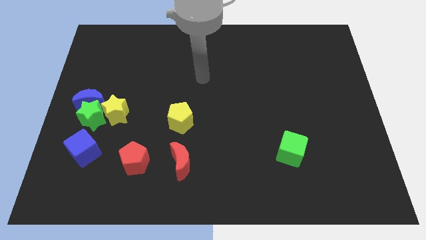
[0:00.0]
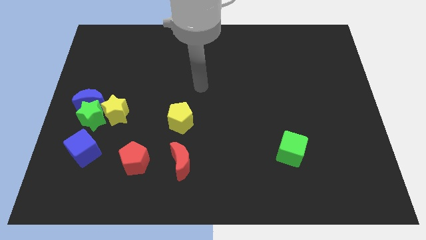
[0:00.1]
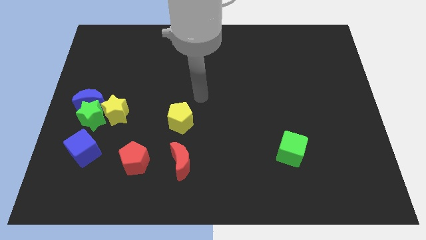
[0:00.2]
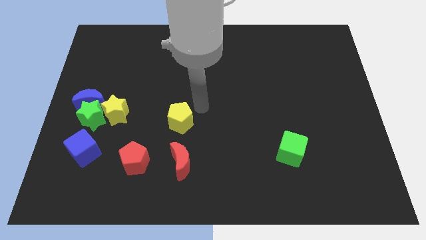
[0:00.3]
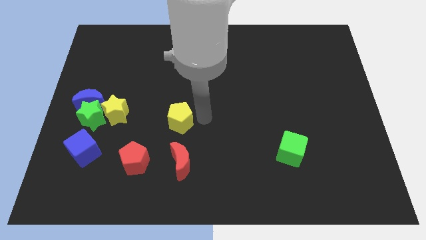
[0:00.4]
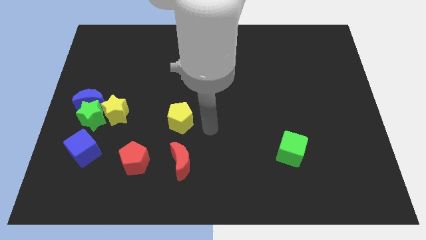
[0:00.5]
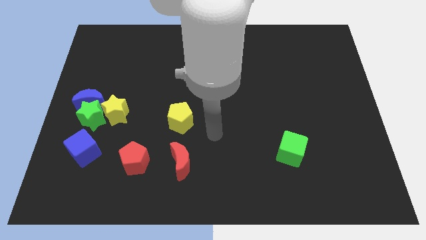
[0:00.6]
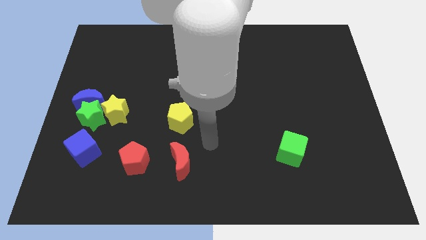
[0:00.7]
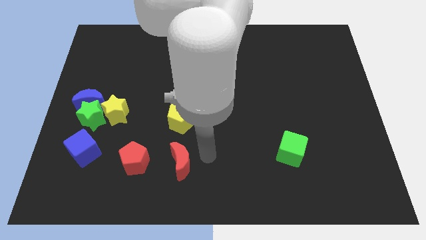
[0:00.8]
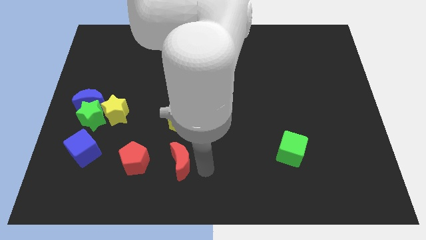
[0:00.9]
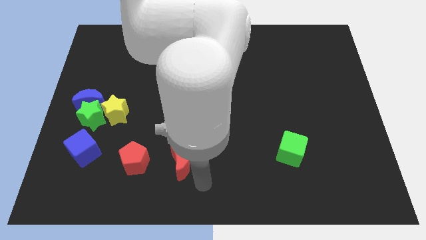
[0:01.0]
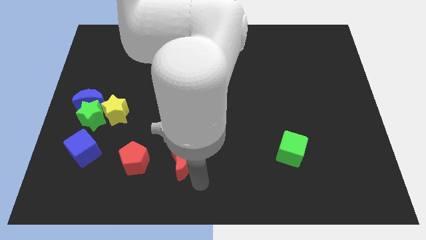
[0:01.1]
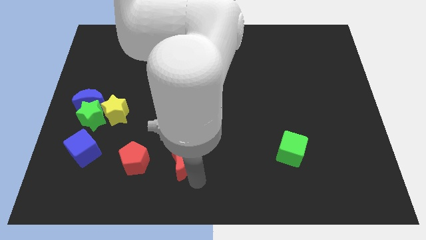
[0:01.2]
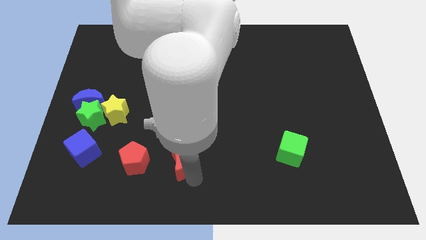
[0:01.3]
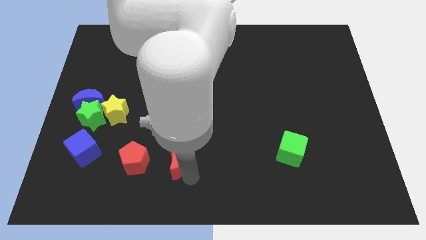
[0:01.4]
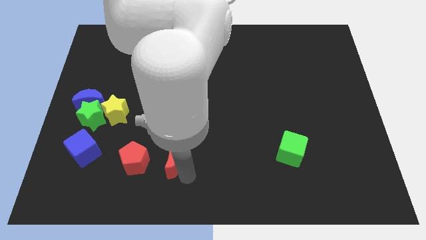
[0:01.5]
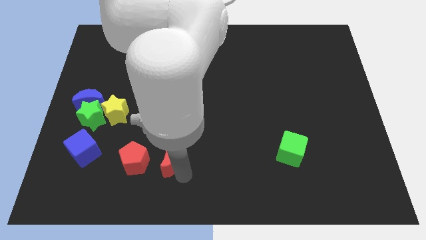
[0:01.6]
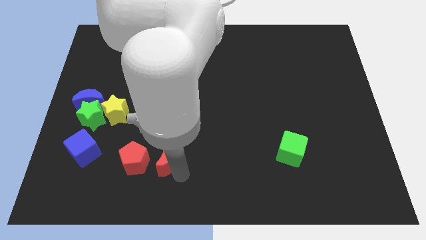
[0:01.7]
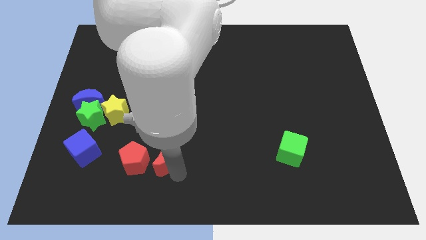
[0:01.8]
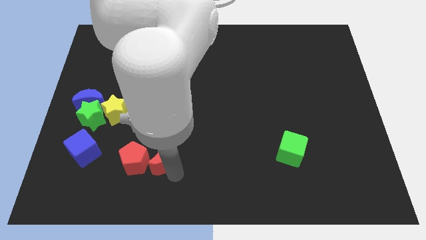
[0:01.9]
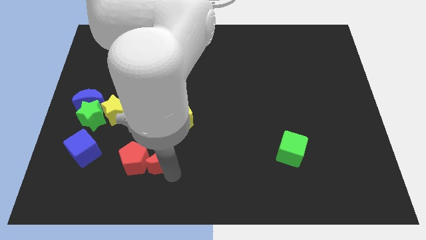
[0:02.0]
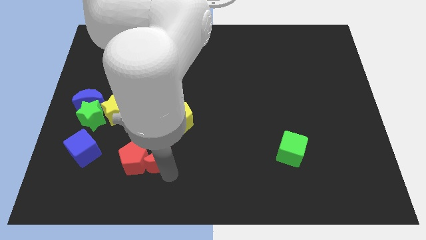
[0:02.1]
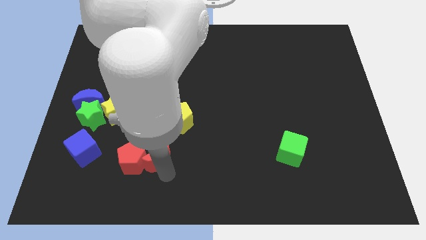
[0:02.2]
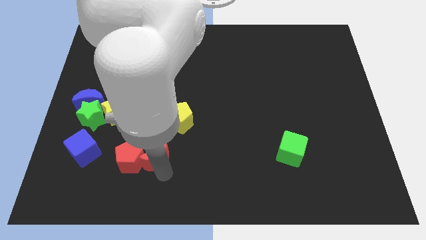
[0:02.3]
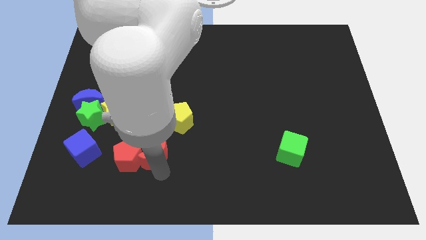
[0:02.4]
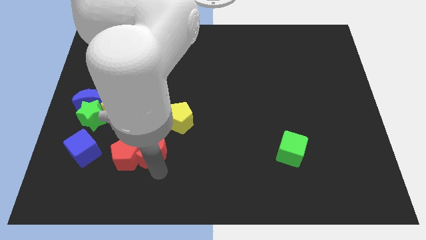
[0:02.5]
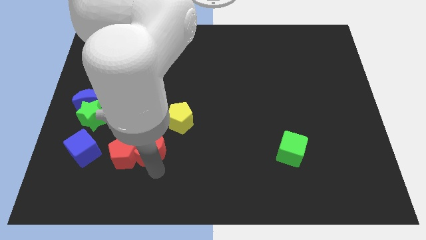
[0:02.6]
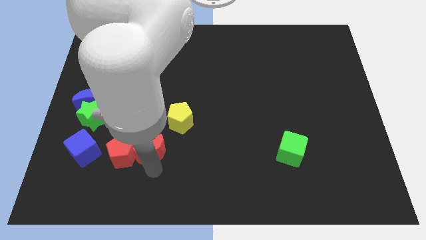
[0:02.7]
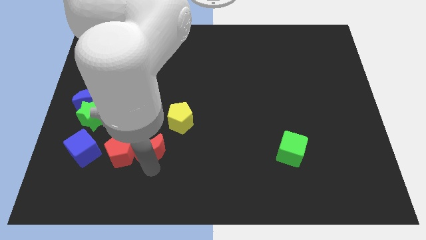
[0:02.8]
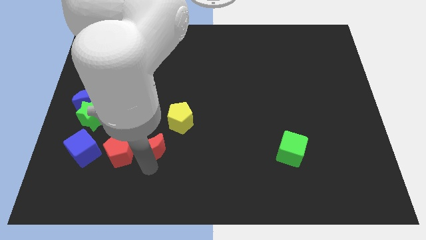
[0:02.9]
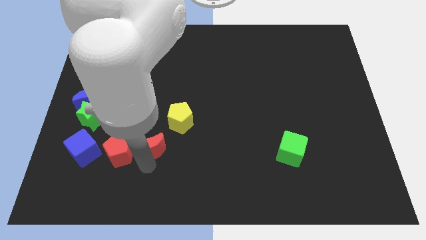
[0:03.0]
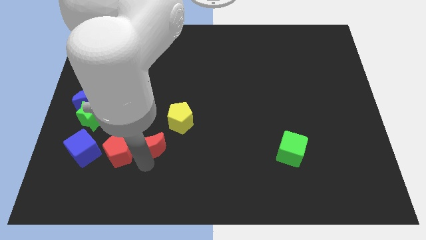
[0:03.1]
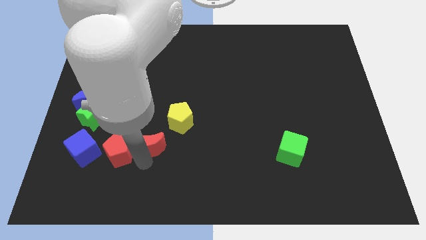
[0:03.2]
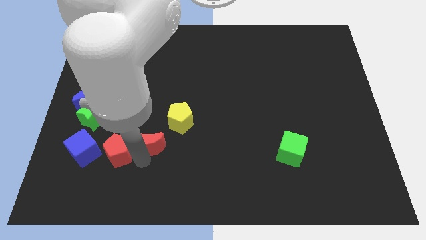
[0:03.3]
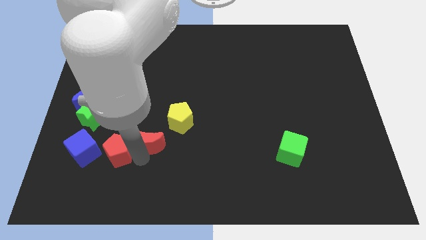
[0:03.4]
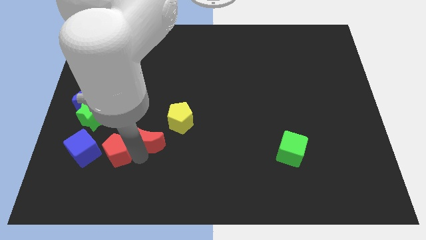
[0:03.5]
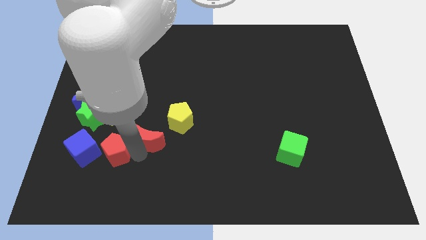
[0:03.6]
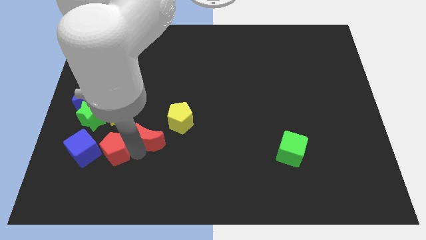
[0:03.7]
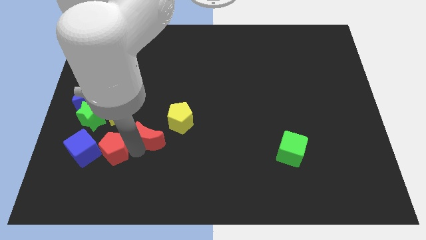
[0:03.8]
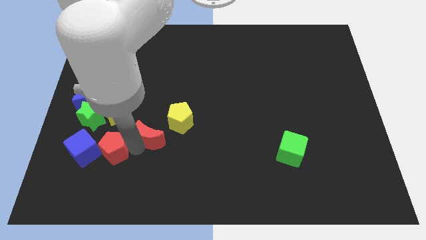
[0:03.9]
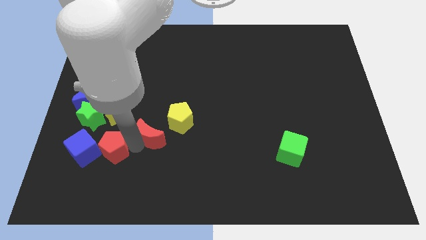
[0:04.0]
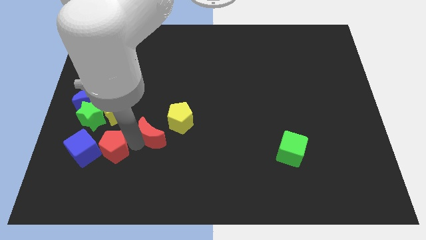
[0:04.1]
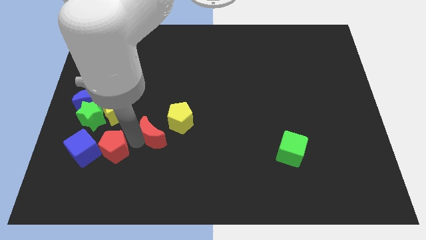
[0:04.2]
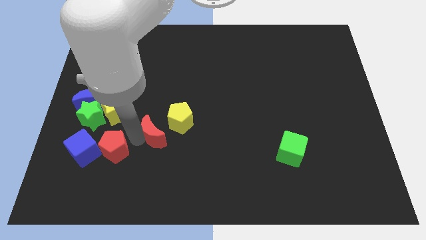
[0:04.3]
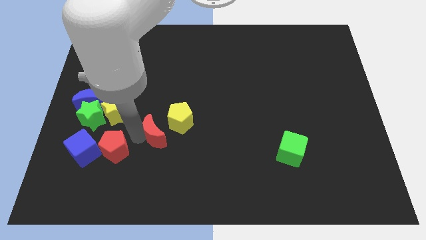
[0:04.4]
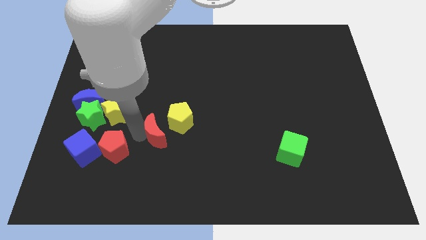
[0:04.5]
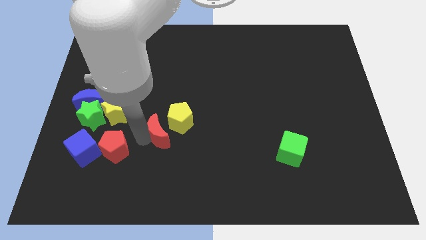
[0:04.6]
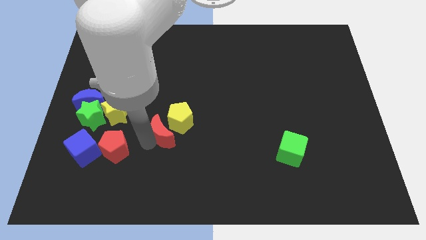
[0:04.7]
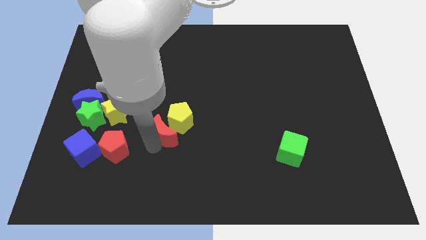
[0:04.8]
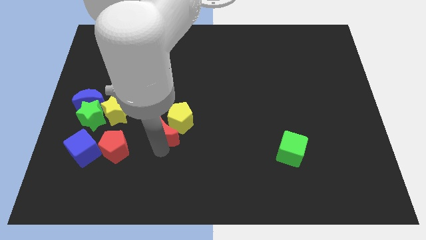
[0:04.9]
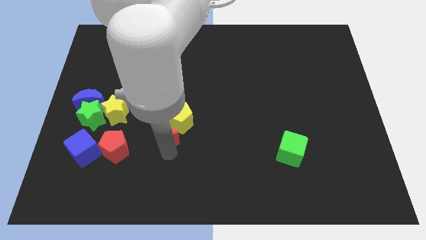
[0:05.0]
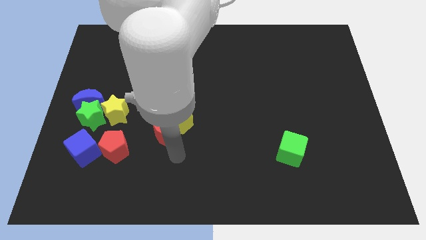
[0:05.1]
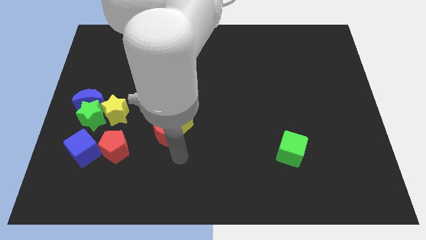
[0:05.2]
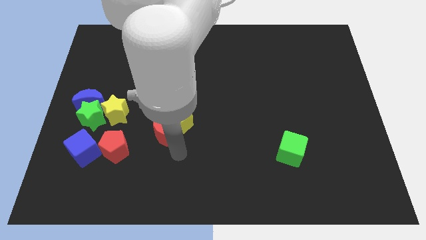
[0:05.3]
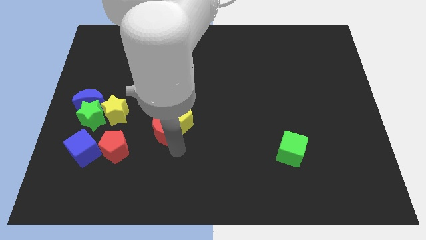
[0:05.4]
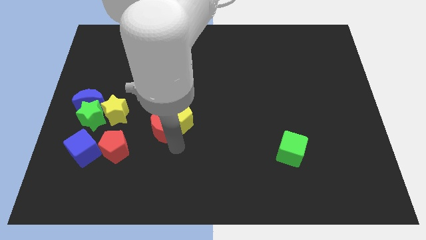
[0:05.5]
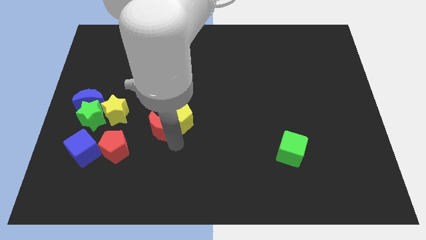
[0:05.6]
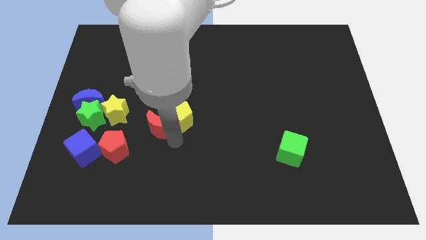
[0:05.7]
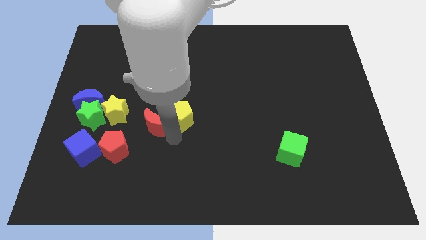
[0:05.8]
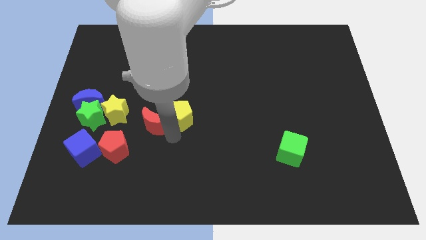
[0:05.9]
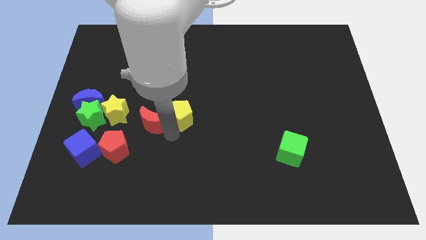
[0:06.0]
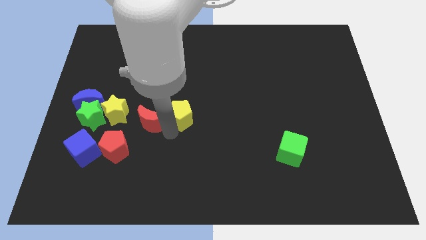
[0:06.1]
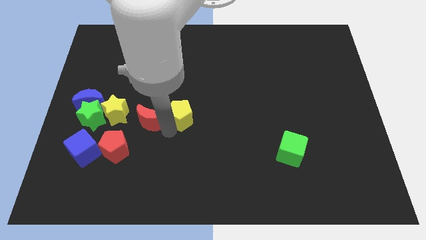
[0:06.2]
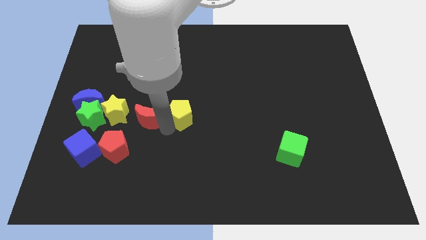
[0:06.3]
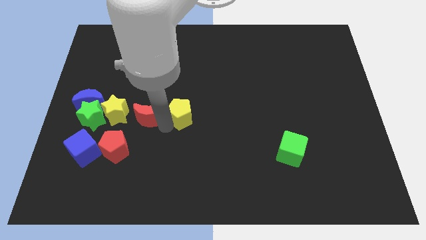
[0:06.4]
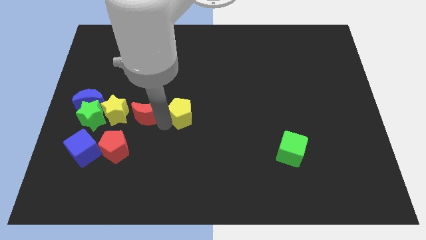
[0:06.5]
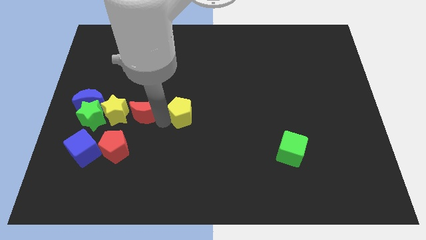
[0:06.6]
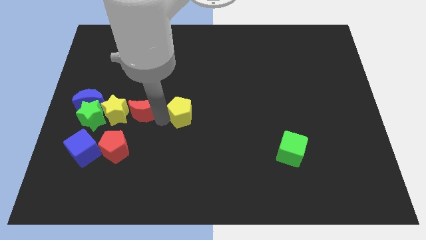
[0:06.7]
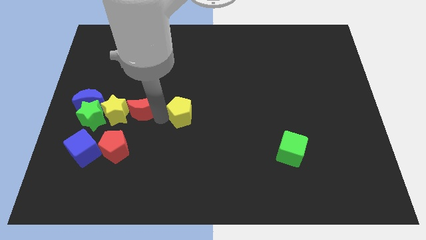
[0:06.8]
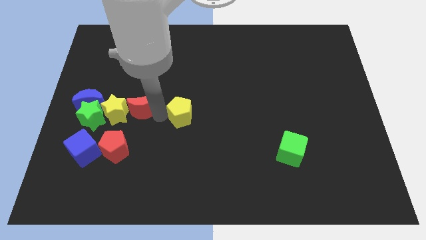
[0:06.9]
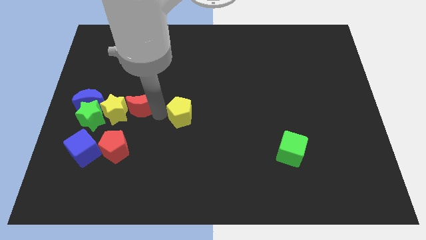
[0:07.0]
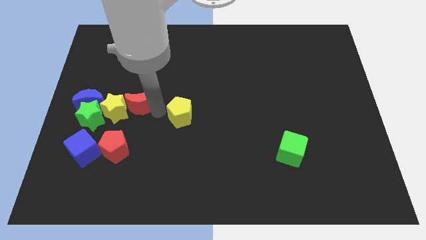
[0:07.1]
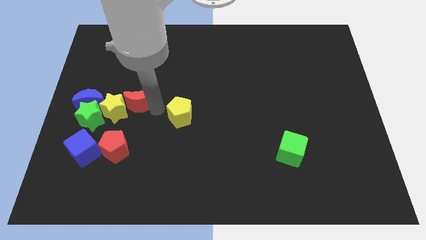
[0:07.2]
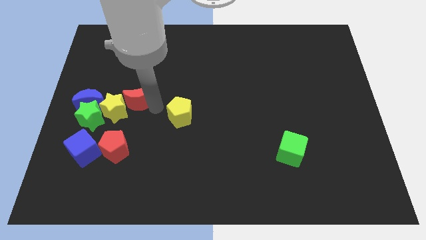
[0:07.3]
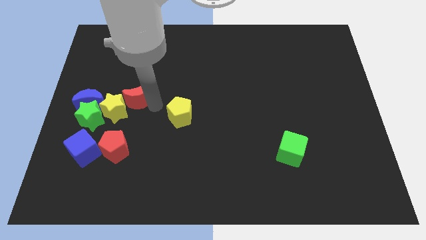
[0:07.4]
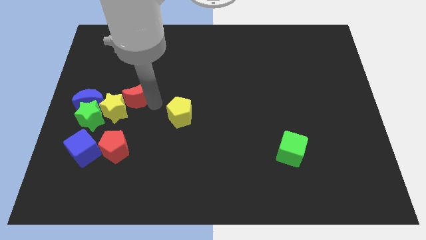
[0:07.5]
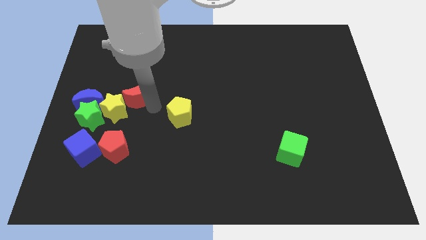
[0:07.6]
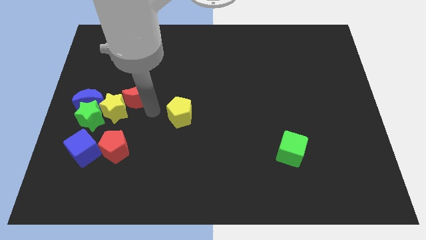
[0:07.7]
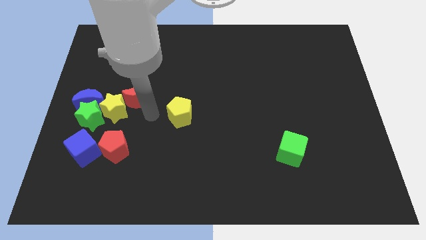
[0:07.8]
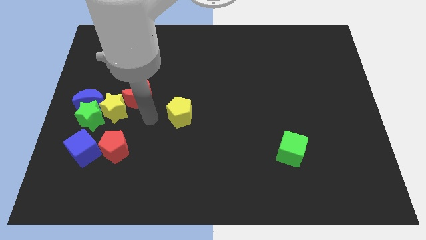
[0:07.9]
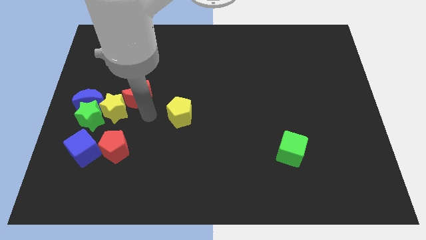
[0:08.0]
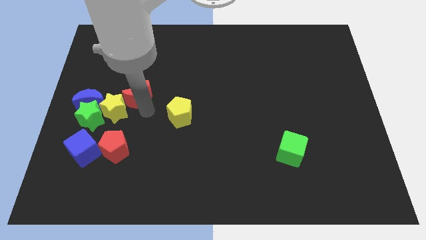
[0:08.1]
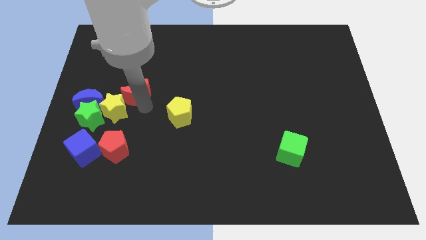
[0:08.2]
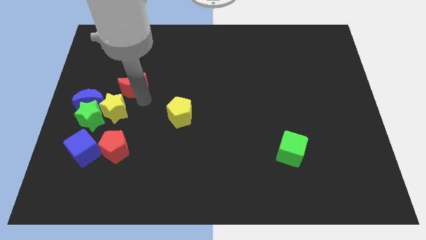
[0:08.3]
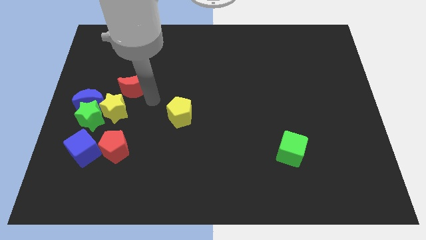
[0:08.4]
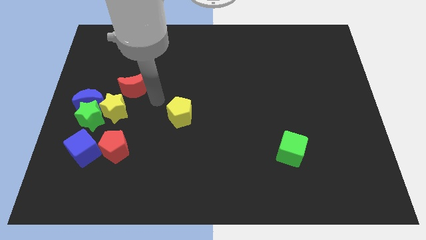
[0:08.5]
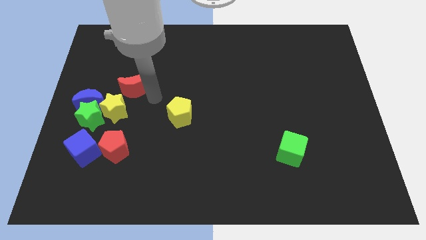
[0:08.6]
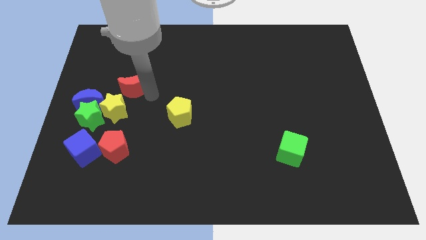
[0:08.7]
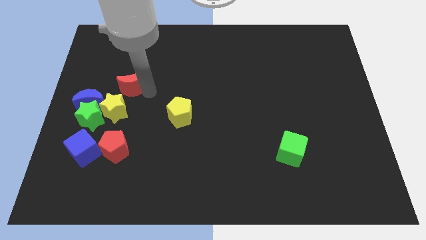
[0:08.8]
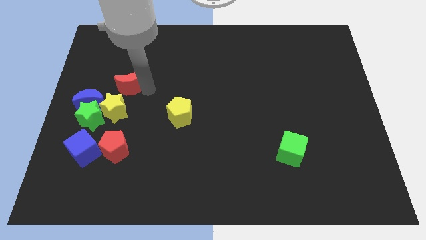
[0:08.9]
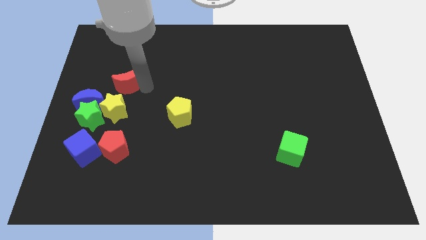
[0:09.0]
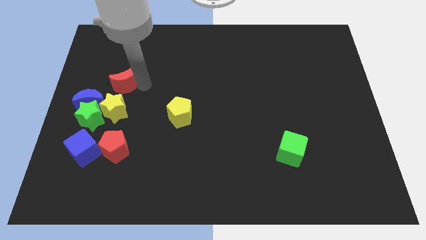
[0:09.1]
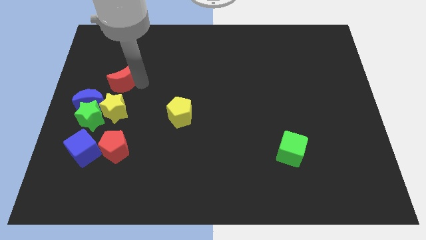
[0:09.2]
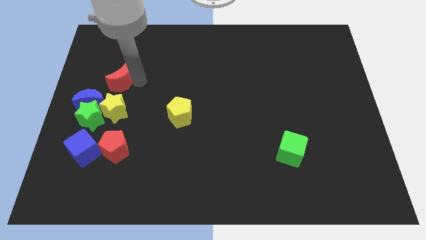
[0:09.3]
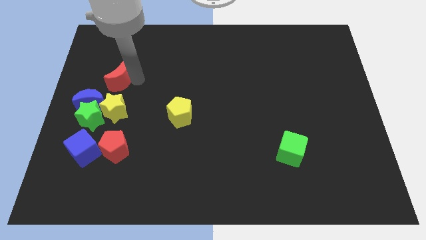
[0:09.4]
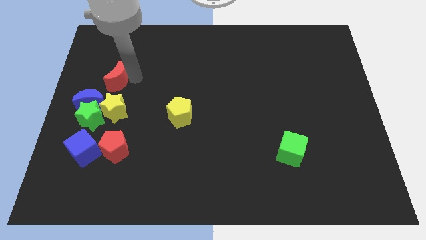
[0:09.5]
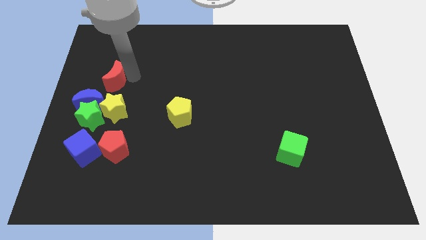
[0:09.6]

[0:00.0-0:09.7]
slide the red moon to the top side of the blue moon
